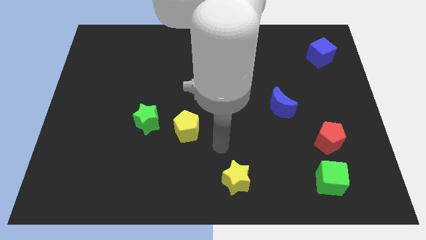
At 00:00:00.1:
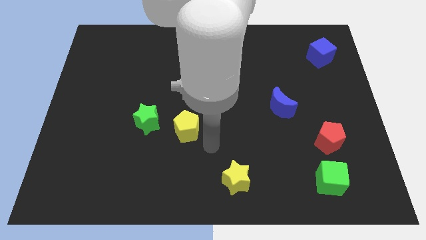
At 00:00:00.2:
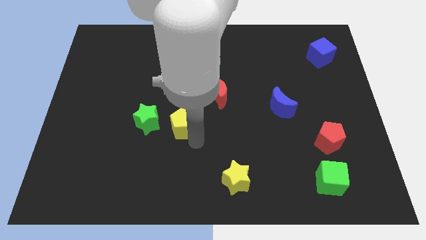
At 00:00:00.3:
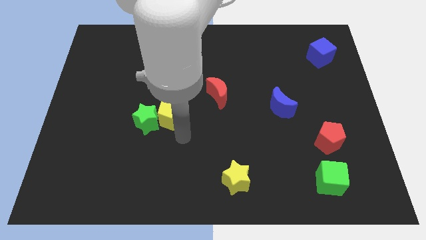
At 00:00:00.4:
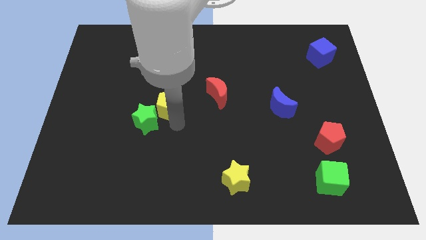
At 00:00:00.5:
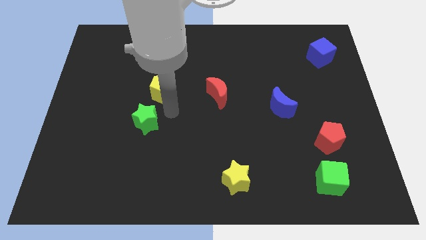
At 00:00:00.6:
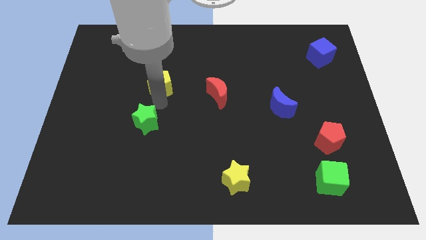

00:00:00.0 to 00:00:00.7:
separate the green star from the yellow pentagon

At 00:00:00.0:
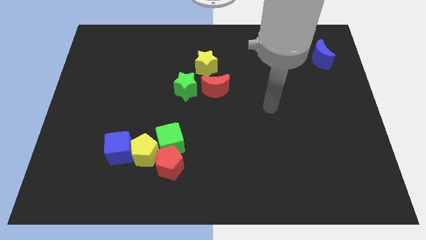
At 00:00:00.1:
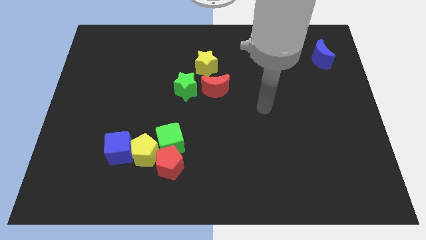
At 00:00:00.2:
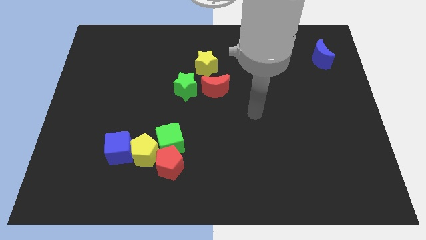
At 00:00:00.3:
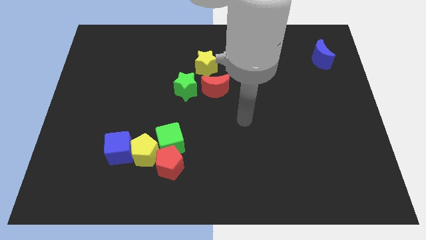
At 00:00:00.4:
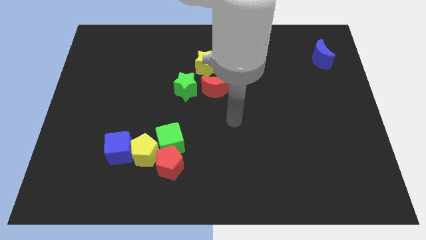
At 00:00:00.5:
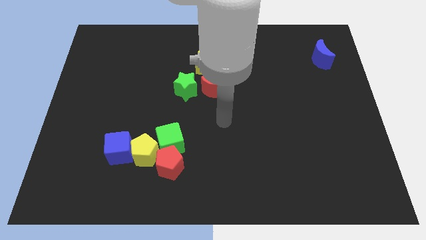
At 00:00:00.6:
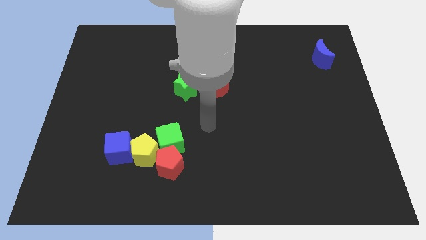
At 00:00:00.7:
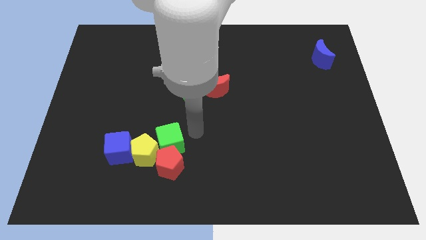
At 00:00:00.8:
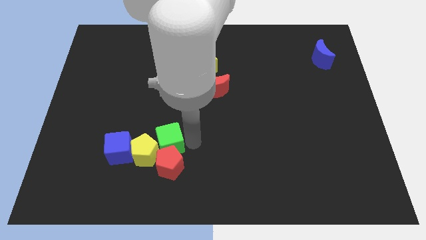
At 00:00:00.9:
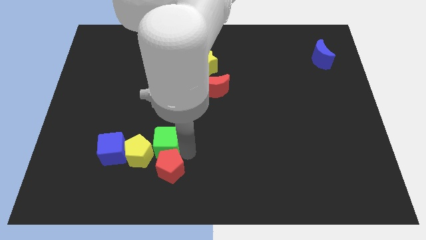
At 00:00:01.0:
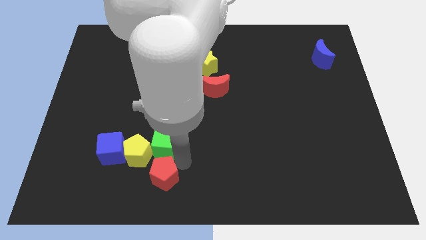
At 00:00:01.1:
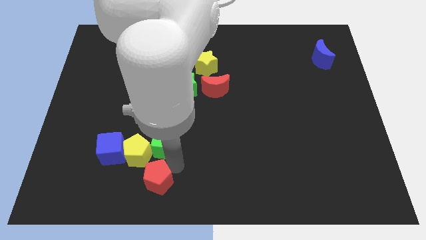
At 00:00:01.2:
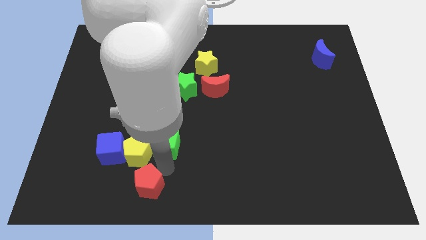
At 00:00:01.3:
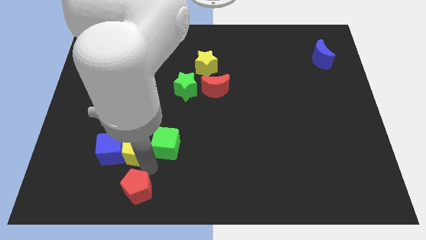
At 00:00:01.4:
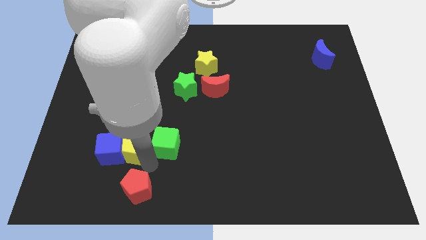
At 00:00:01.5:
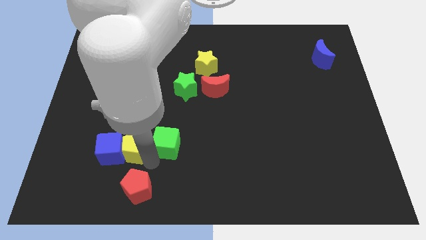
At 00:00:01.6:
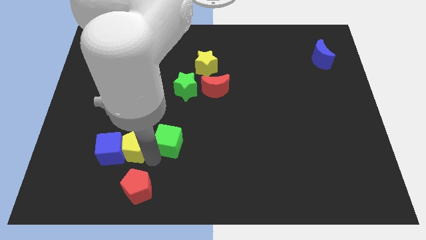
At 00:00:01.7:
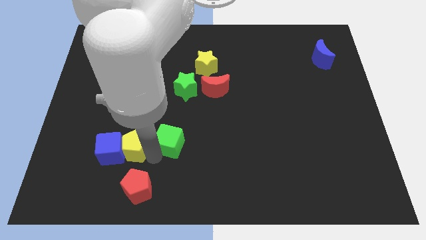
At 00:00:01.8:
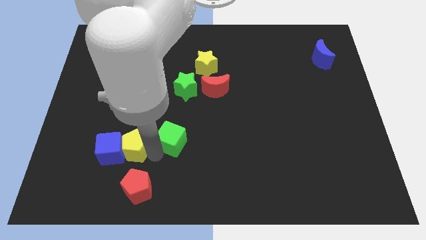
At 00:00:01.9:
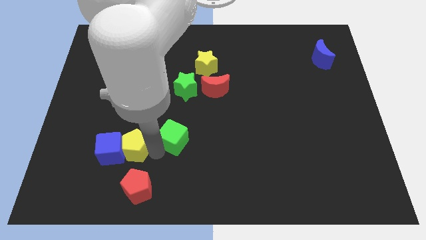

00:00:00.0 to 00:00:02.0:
separate the green cube from the red pentagon and yellow pentagon

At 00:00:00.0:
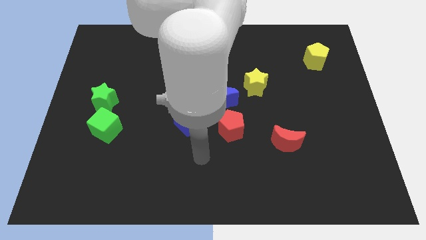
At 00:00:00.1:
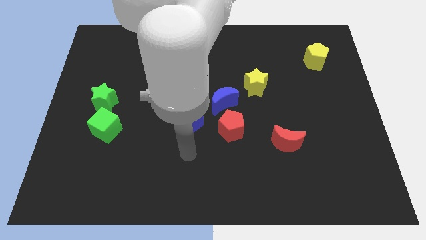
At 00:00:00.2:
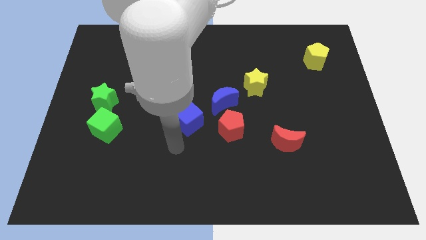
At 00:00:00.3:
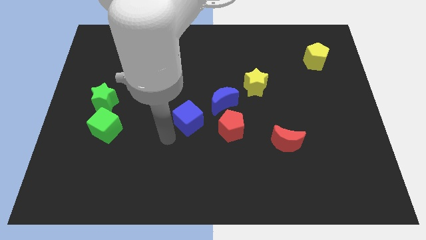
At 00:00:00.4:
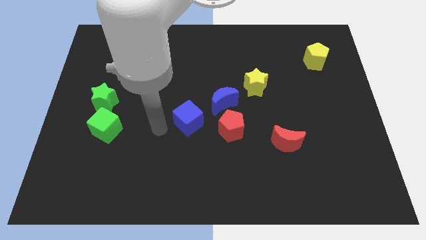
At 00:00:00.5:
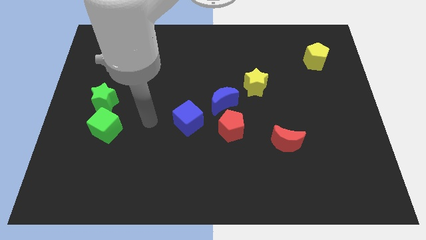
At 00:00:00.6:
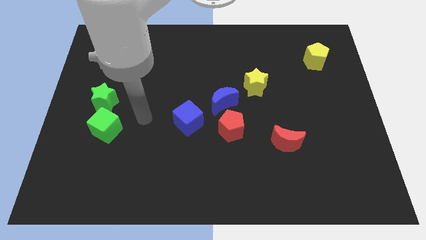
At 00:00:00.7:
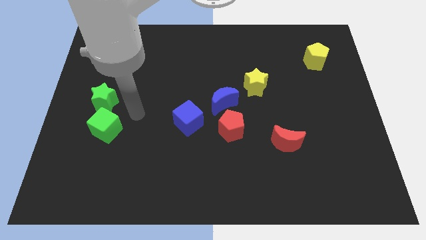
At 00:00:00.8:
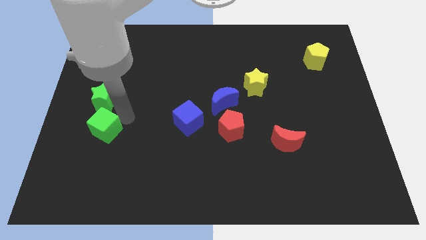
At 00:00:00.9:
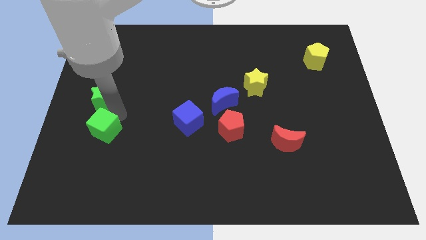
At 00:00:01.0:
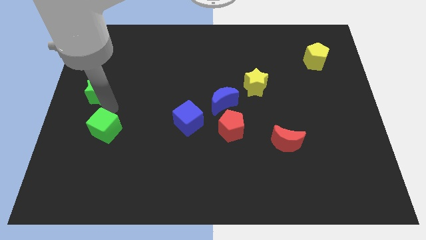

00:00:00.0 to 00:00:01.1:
pull the green cube apart from the green star

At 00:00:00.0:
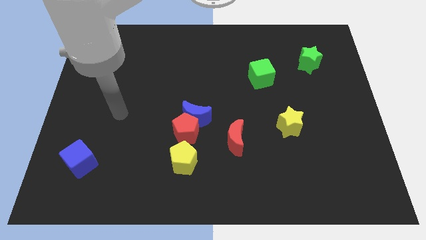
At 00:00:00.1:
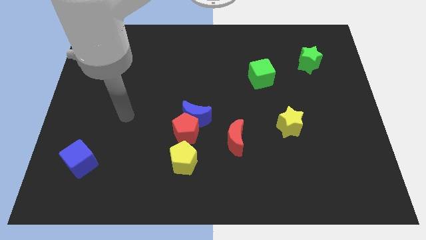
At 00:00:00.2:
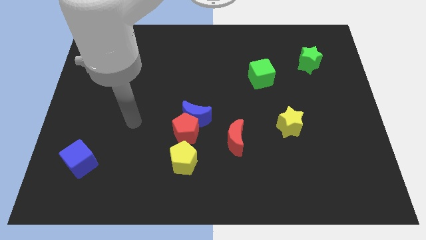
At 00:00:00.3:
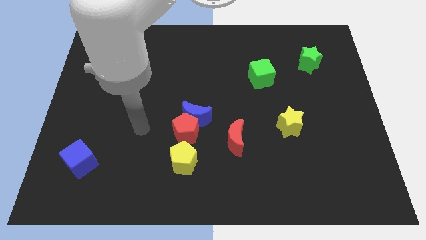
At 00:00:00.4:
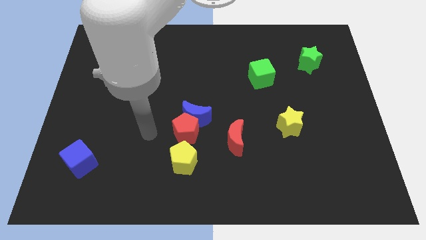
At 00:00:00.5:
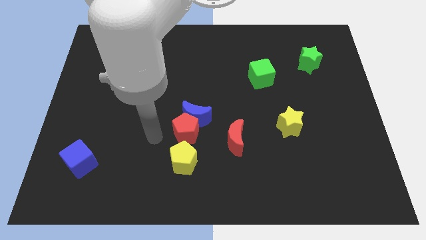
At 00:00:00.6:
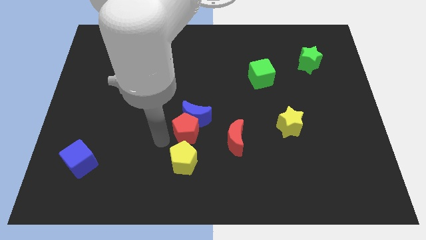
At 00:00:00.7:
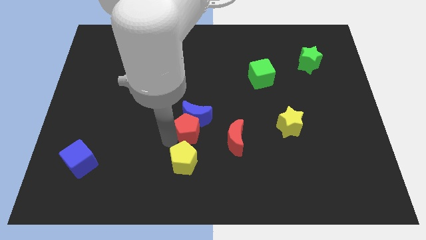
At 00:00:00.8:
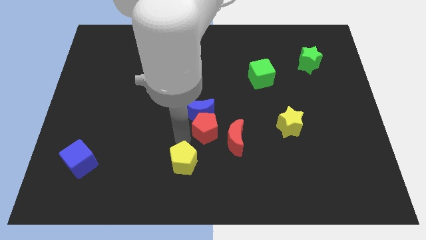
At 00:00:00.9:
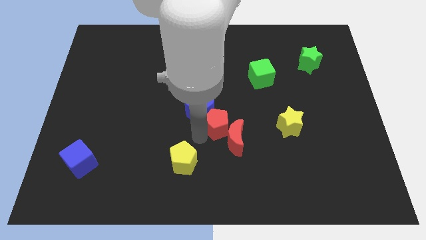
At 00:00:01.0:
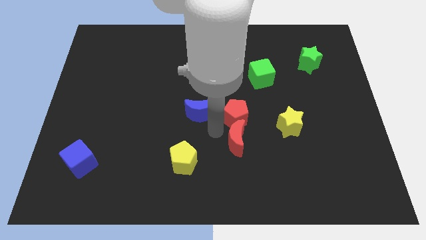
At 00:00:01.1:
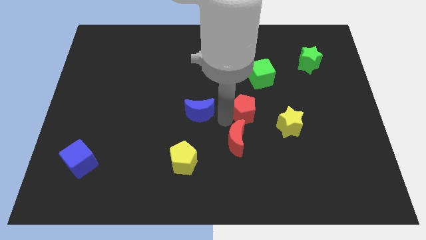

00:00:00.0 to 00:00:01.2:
separate the blue moon from the red pentagon

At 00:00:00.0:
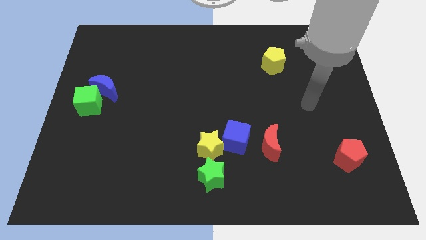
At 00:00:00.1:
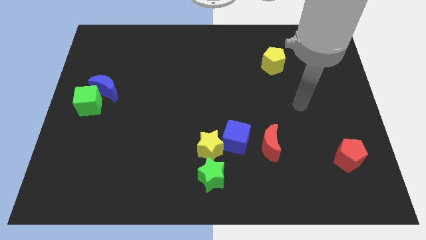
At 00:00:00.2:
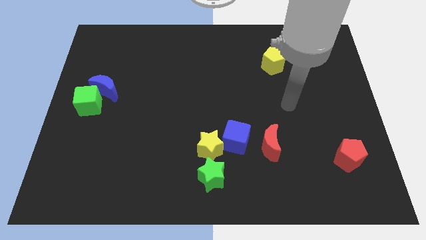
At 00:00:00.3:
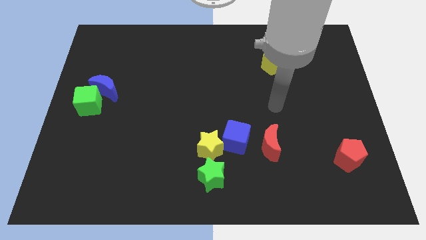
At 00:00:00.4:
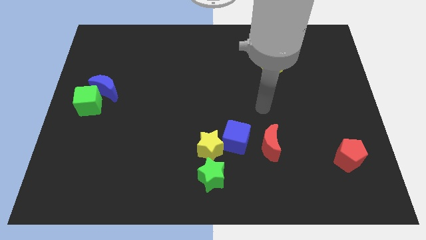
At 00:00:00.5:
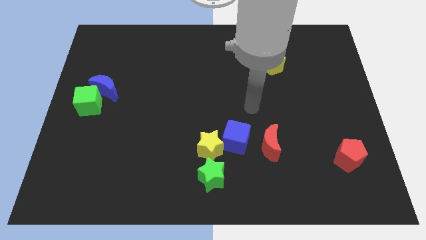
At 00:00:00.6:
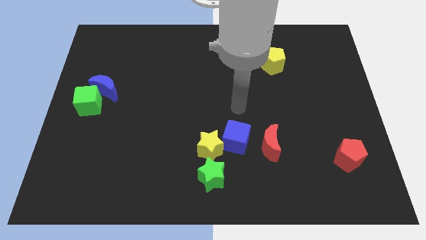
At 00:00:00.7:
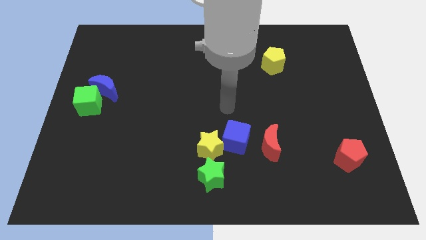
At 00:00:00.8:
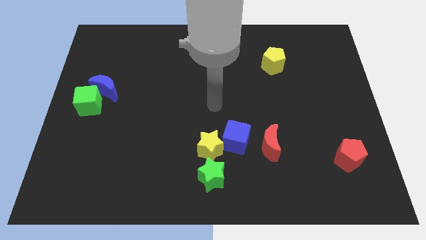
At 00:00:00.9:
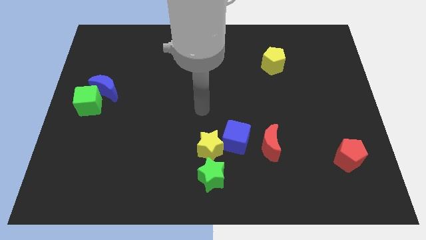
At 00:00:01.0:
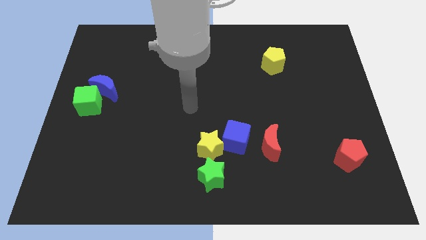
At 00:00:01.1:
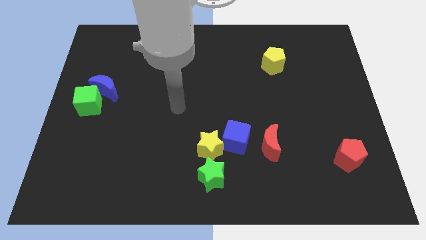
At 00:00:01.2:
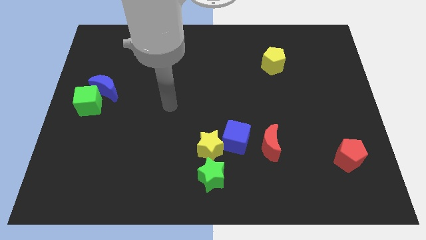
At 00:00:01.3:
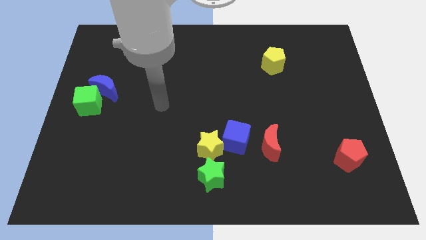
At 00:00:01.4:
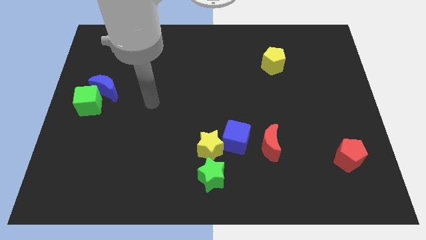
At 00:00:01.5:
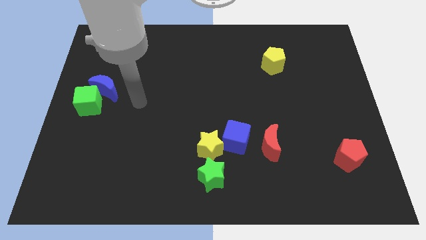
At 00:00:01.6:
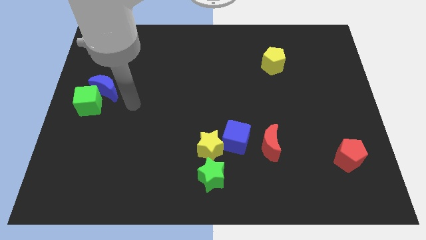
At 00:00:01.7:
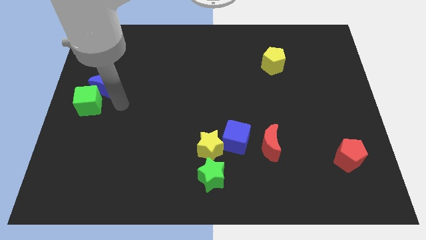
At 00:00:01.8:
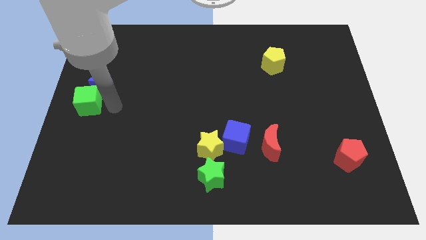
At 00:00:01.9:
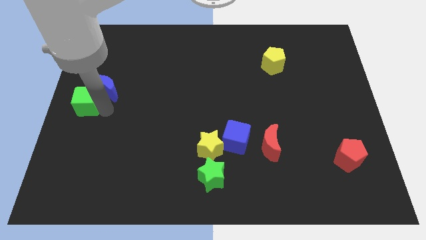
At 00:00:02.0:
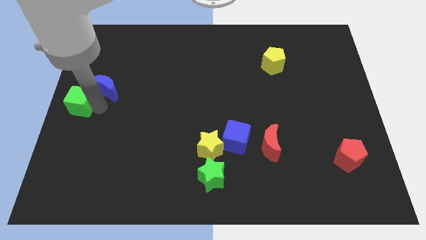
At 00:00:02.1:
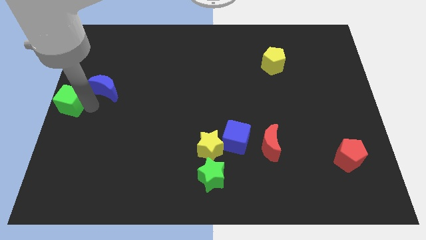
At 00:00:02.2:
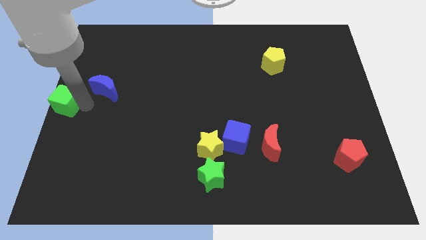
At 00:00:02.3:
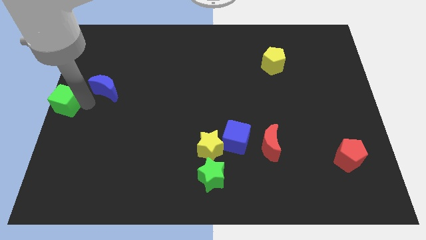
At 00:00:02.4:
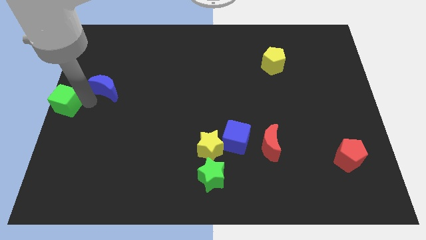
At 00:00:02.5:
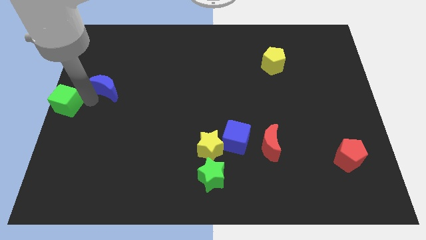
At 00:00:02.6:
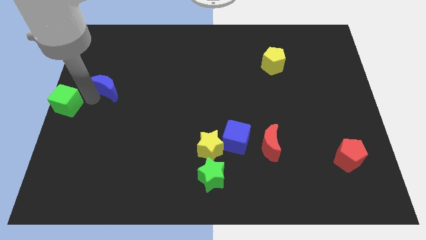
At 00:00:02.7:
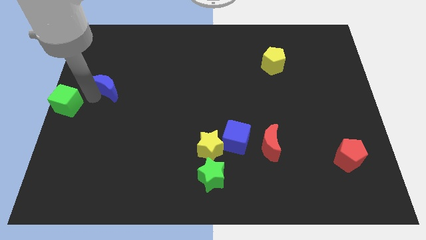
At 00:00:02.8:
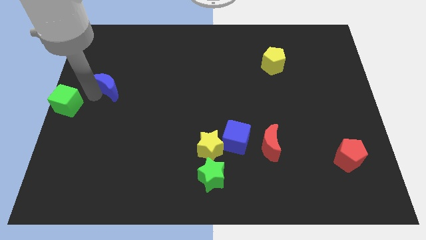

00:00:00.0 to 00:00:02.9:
move the blue moon away from the green cube

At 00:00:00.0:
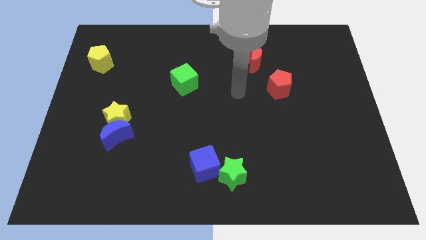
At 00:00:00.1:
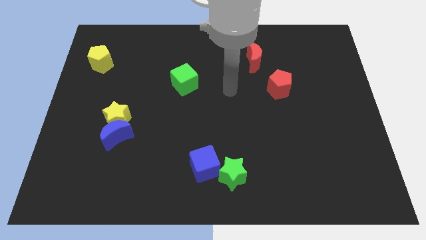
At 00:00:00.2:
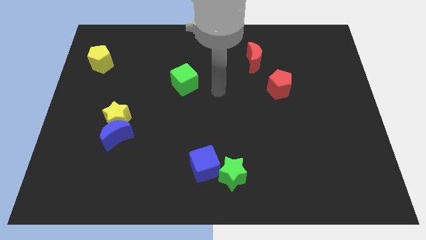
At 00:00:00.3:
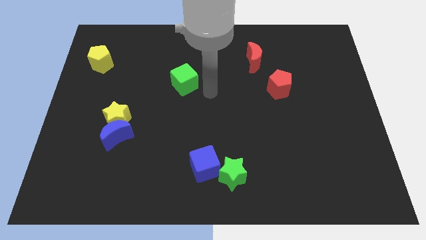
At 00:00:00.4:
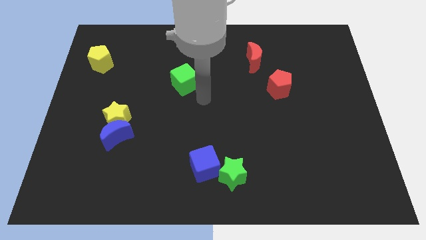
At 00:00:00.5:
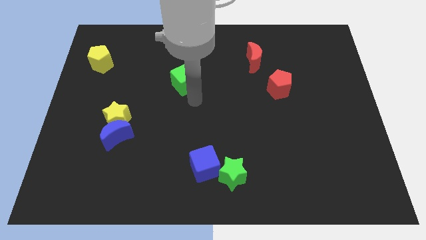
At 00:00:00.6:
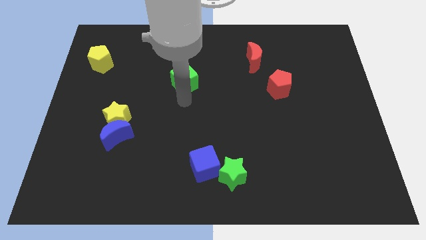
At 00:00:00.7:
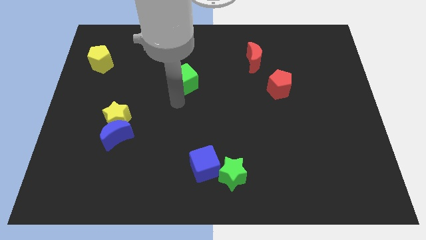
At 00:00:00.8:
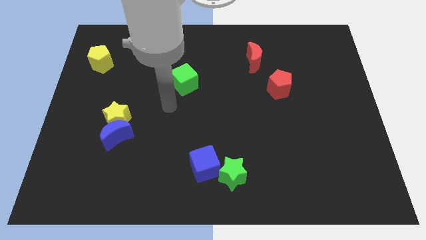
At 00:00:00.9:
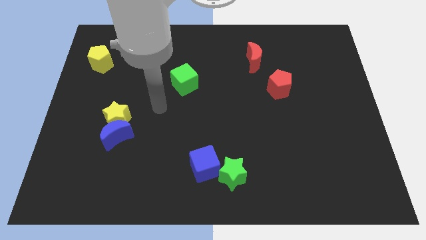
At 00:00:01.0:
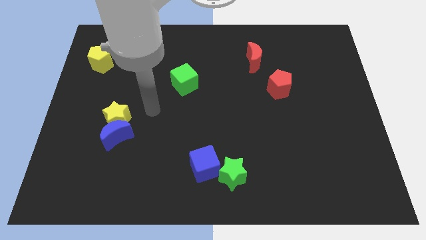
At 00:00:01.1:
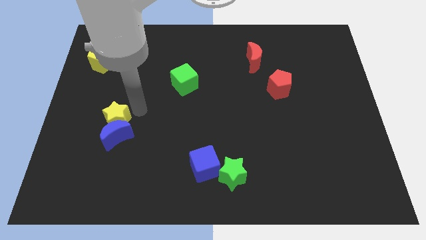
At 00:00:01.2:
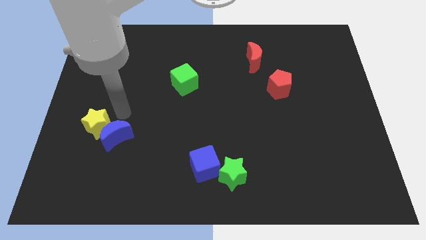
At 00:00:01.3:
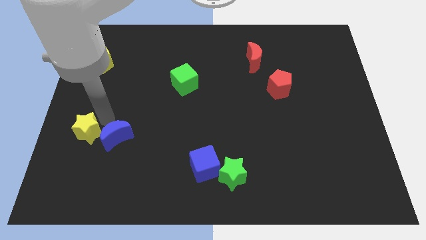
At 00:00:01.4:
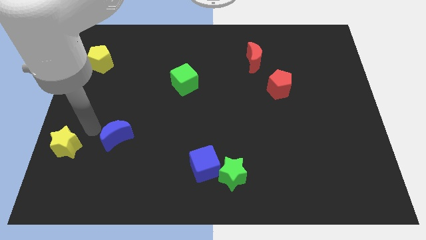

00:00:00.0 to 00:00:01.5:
move the blue moon away from the yellow star
